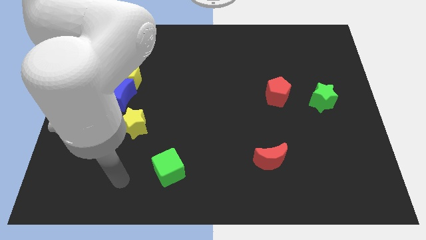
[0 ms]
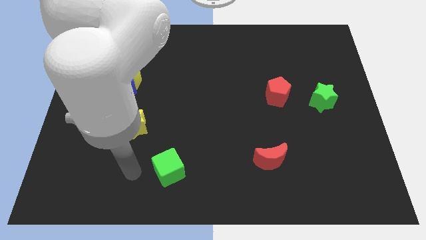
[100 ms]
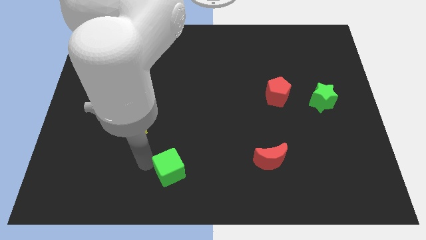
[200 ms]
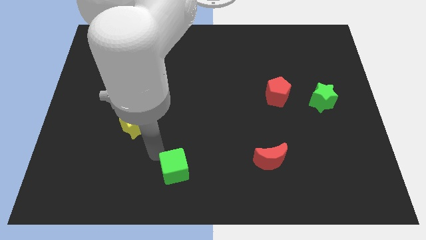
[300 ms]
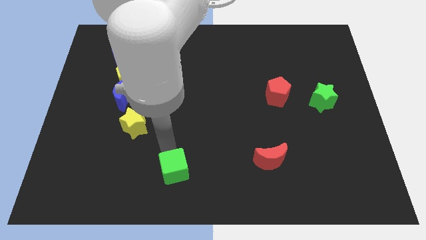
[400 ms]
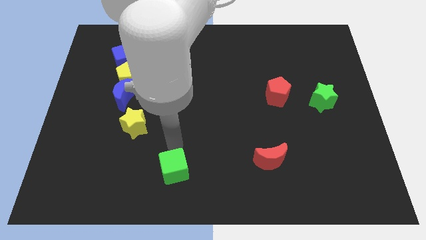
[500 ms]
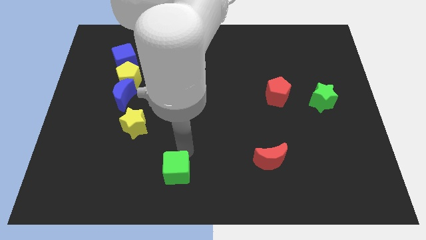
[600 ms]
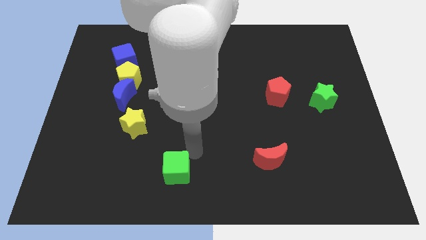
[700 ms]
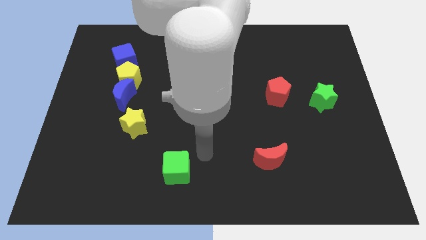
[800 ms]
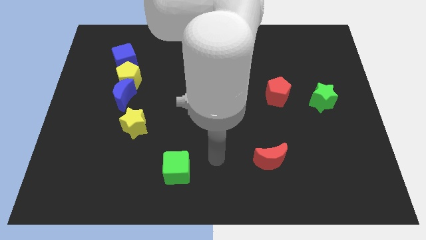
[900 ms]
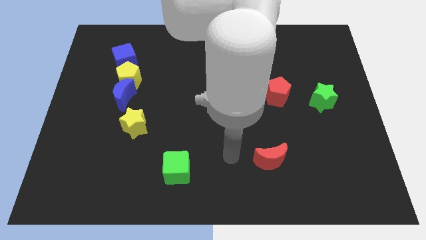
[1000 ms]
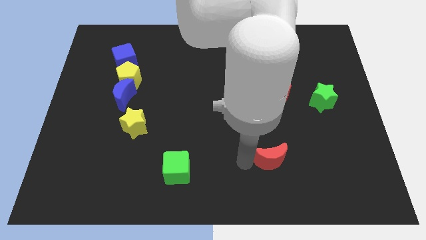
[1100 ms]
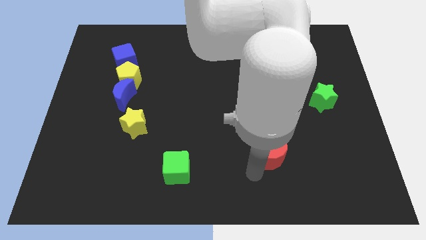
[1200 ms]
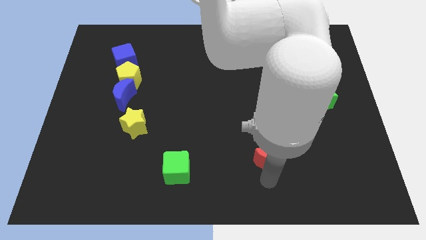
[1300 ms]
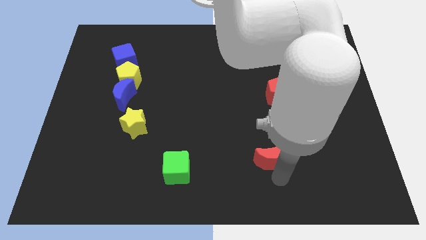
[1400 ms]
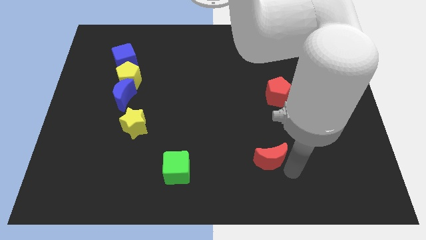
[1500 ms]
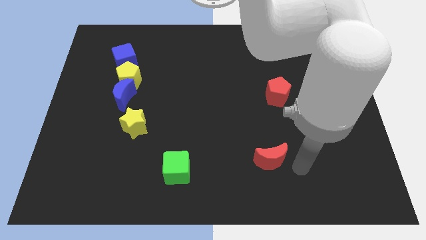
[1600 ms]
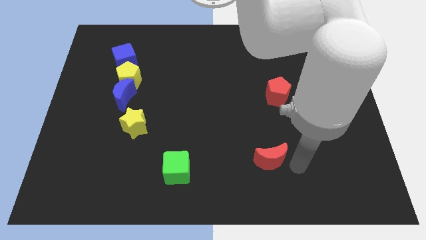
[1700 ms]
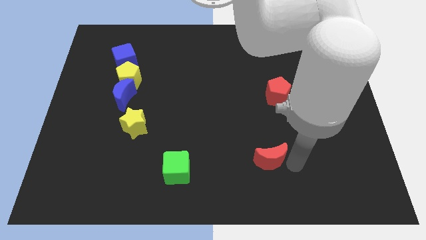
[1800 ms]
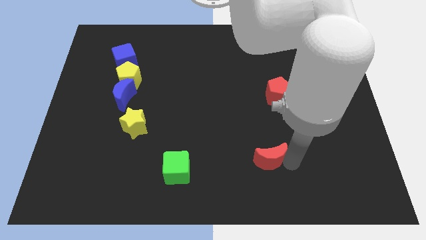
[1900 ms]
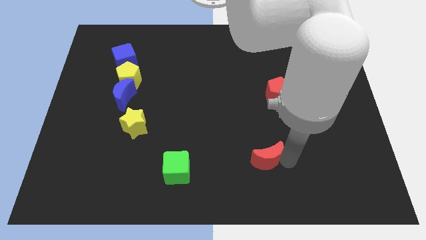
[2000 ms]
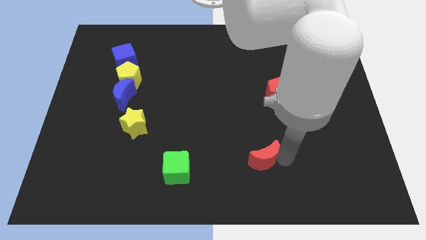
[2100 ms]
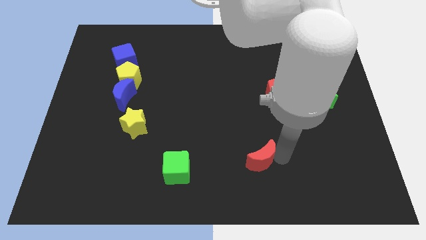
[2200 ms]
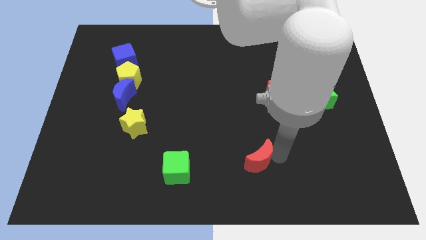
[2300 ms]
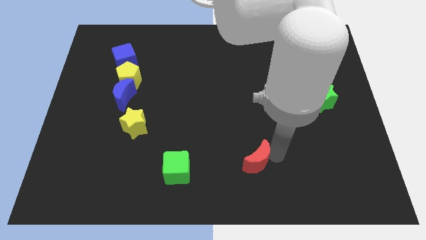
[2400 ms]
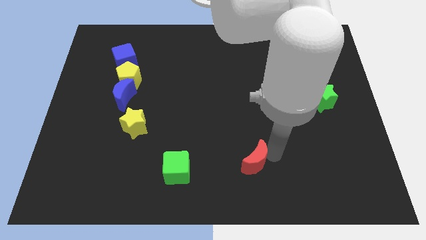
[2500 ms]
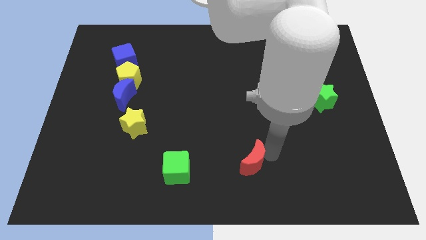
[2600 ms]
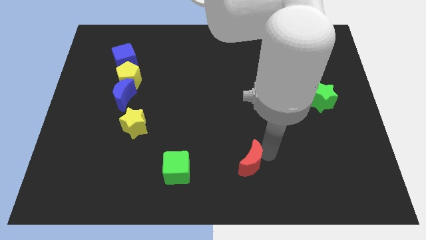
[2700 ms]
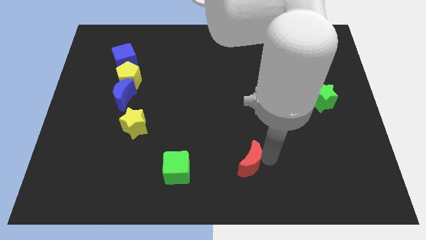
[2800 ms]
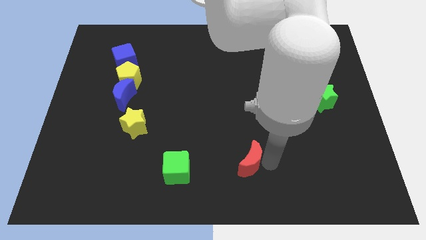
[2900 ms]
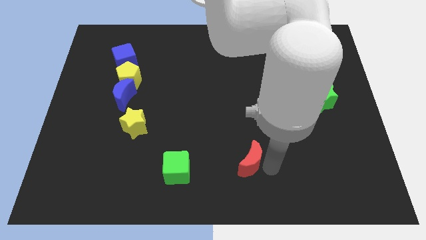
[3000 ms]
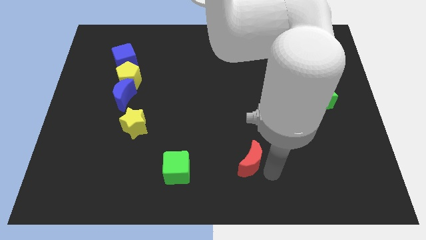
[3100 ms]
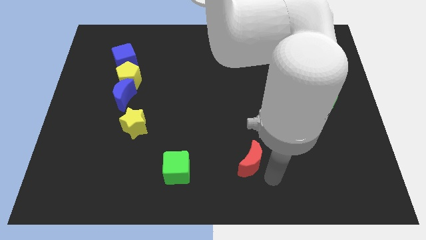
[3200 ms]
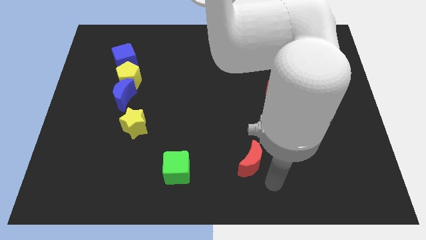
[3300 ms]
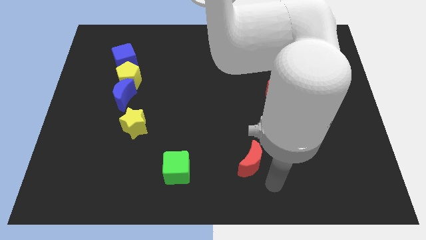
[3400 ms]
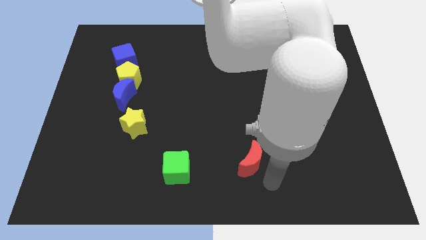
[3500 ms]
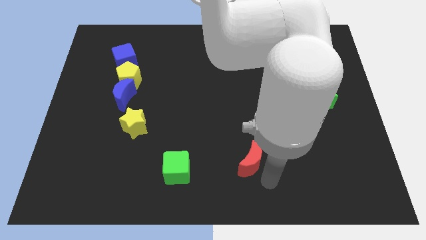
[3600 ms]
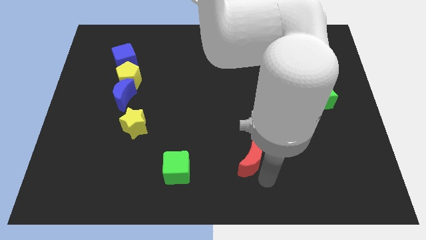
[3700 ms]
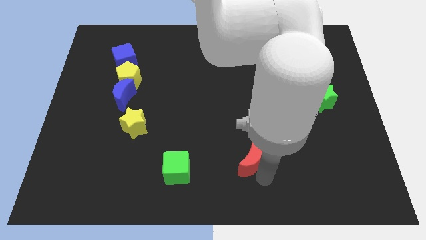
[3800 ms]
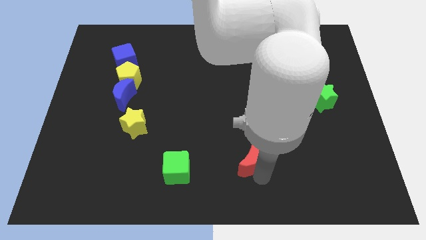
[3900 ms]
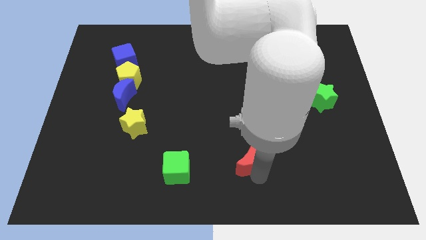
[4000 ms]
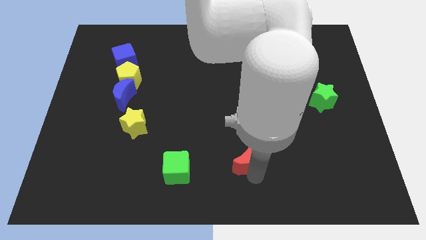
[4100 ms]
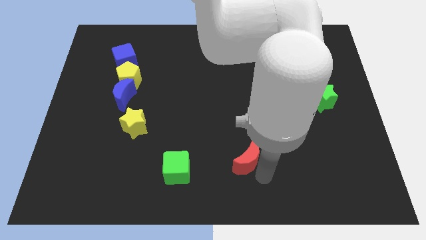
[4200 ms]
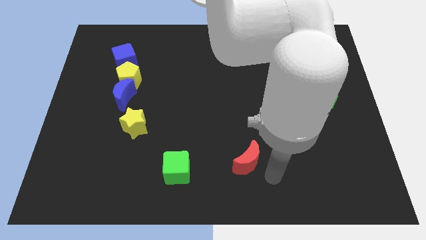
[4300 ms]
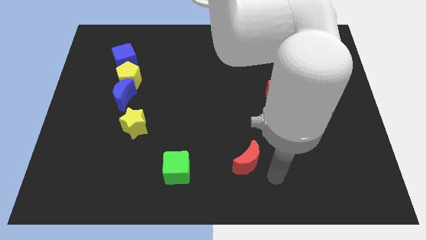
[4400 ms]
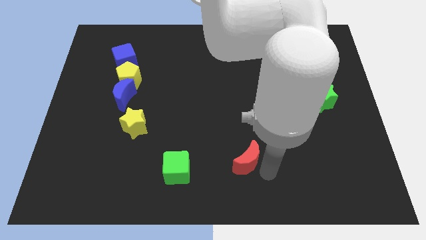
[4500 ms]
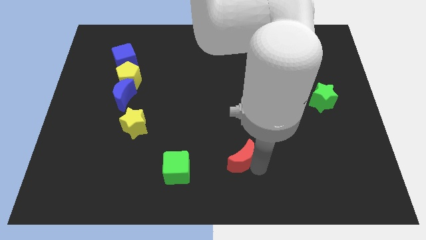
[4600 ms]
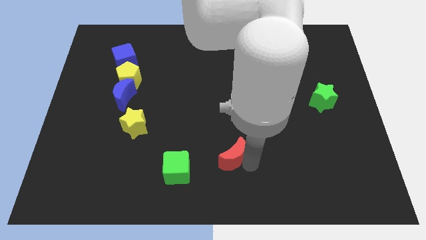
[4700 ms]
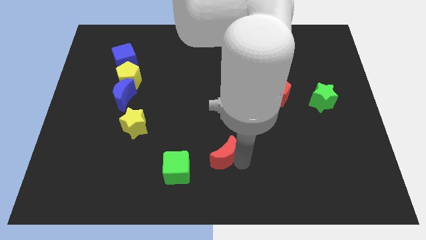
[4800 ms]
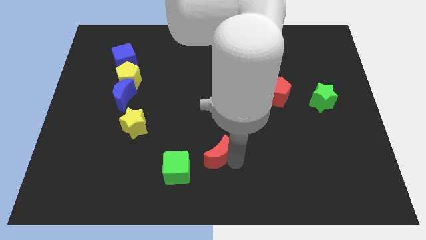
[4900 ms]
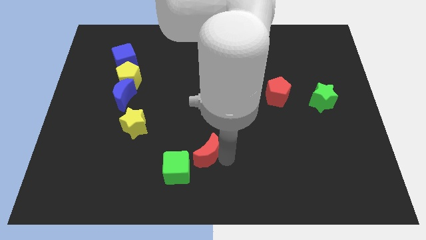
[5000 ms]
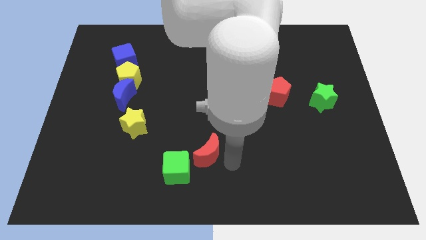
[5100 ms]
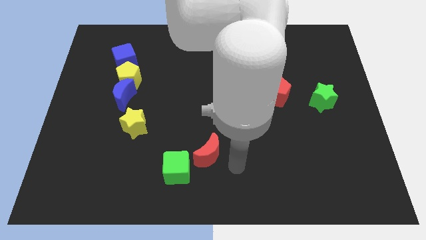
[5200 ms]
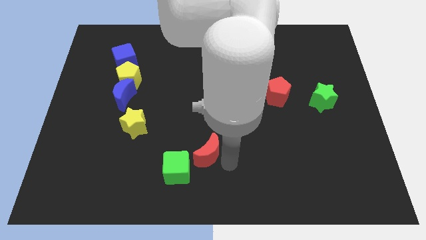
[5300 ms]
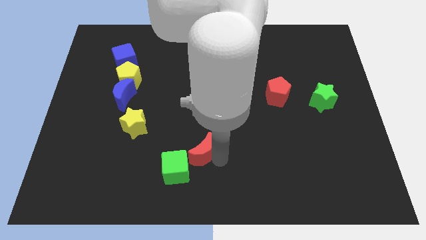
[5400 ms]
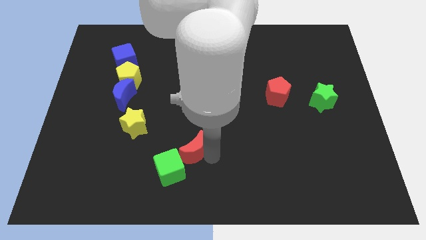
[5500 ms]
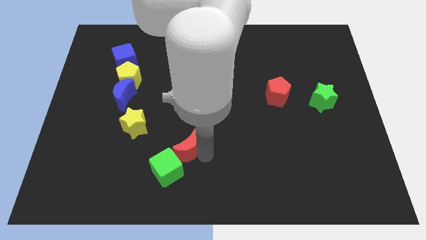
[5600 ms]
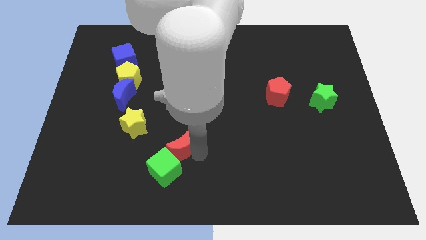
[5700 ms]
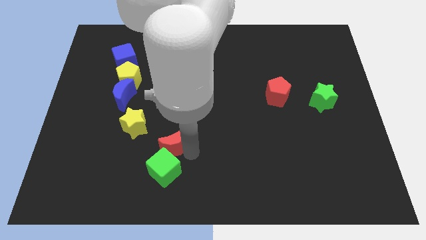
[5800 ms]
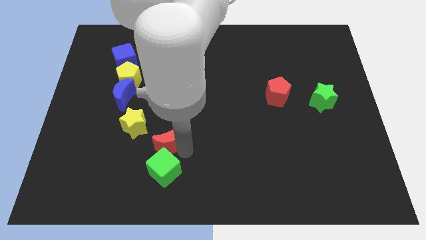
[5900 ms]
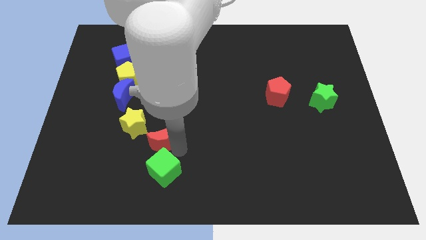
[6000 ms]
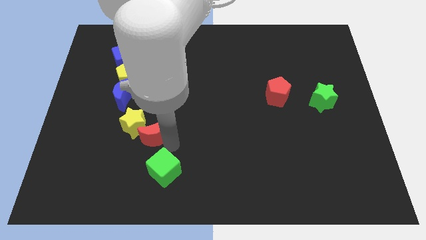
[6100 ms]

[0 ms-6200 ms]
slide the red moon close to the yellow star

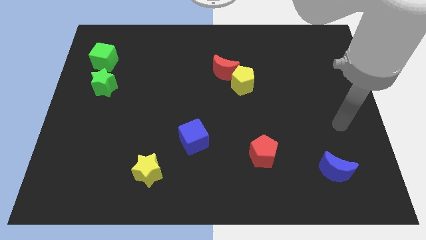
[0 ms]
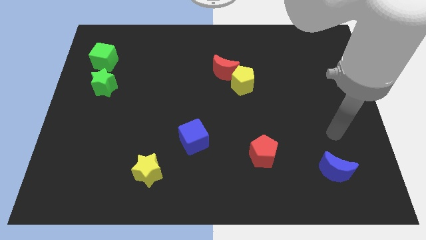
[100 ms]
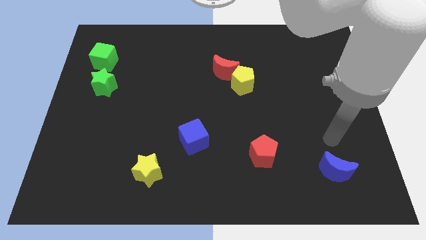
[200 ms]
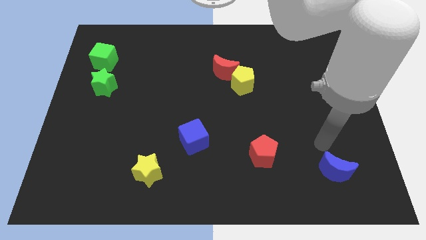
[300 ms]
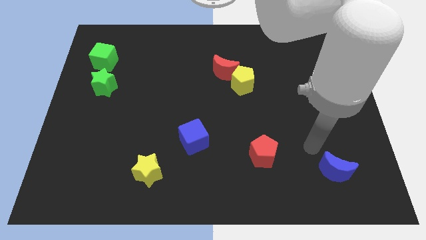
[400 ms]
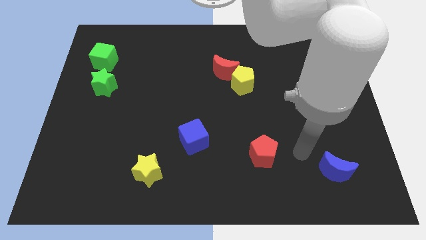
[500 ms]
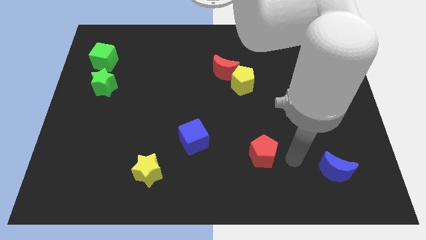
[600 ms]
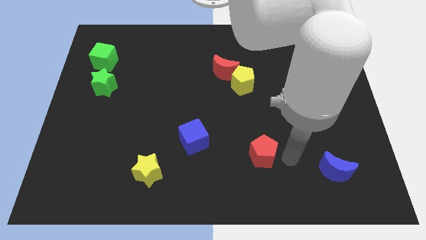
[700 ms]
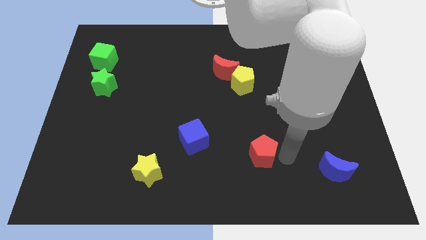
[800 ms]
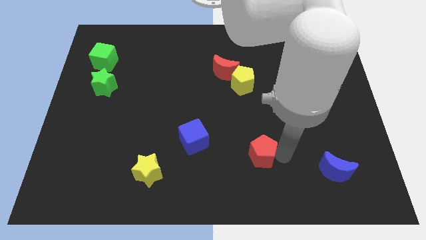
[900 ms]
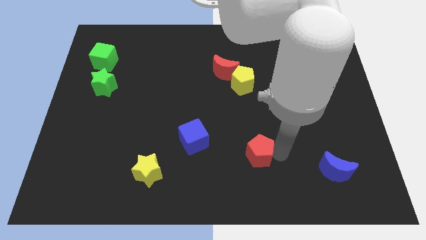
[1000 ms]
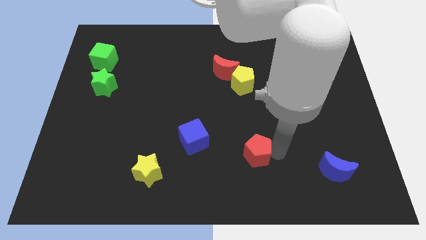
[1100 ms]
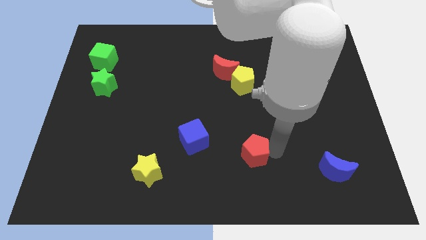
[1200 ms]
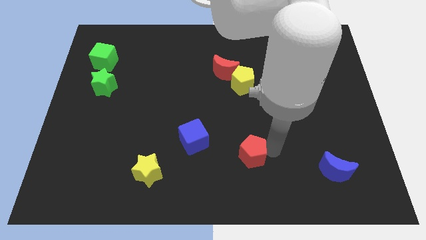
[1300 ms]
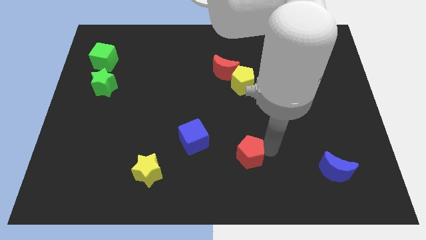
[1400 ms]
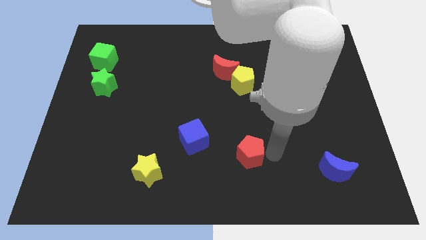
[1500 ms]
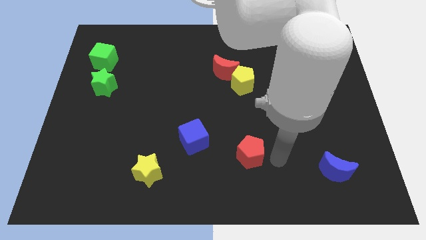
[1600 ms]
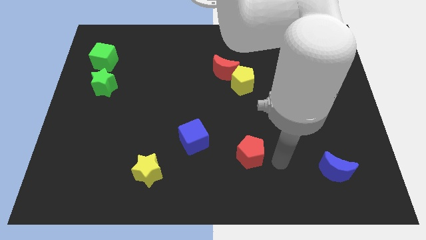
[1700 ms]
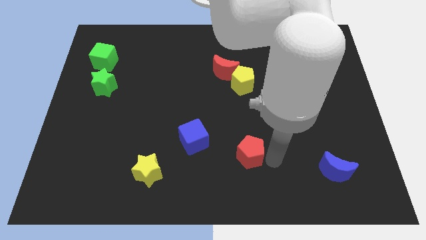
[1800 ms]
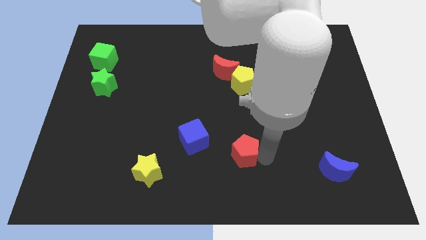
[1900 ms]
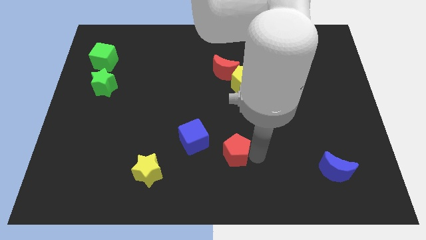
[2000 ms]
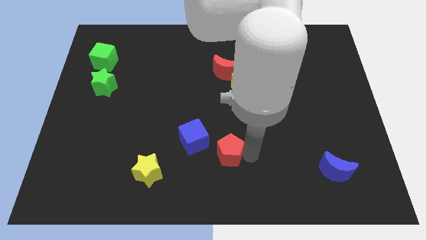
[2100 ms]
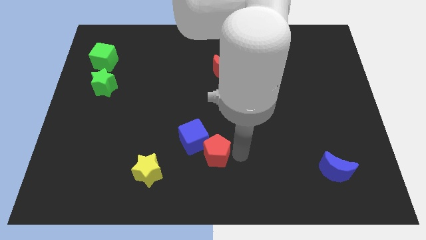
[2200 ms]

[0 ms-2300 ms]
move the red pentagon to the blue cube

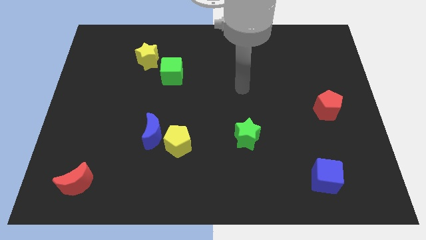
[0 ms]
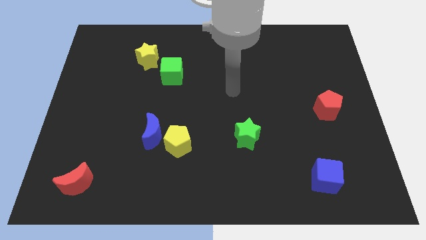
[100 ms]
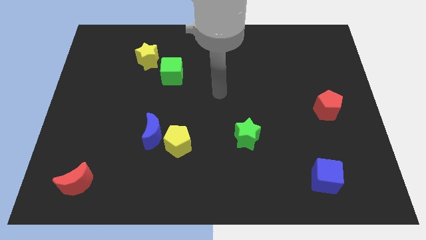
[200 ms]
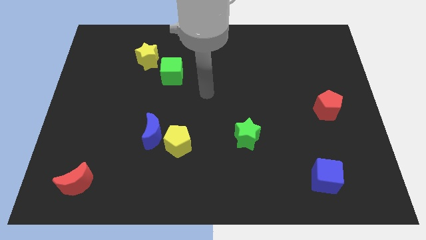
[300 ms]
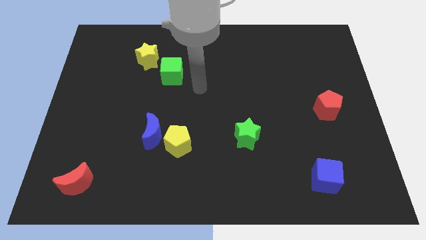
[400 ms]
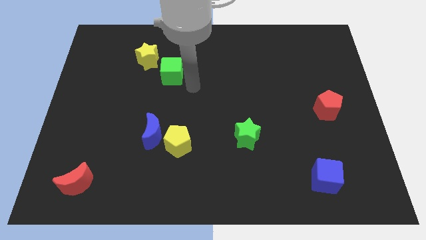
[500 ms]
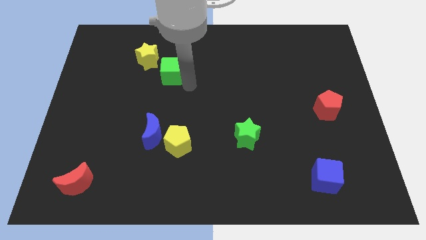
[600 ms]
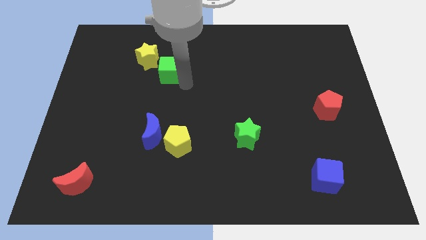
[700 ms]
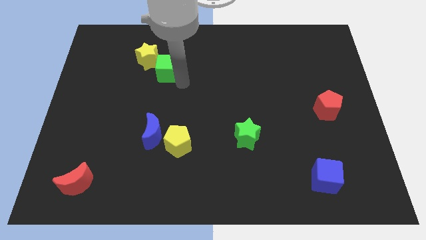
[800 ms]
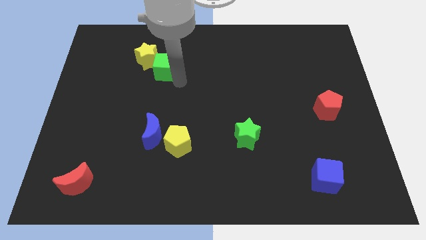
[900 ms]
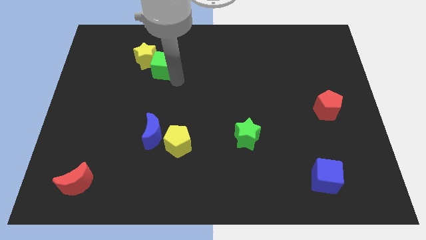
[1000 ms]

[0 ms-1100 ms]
slide the green cube to the yellow star
